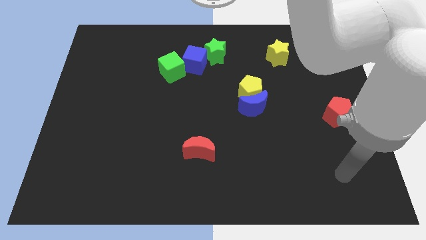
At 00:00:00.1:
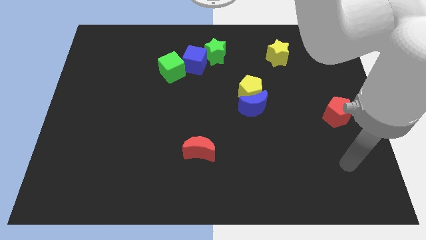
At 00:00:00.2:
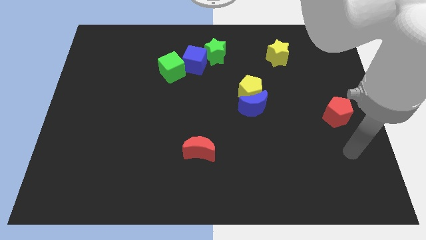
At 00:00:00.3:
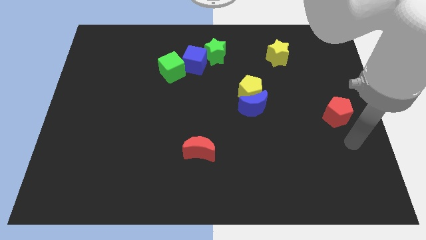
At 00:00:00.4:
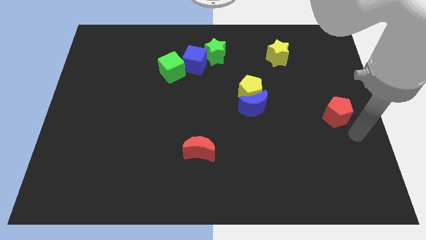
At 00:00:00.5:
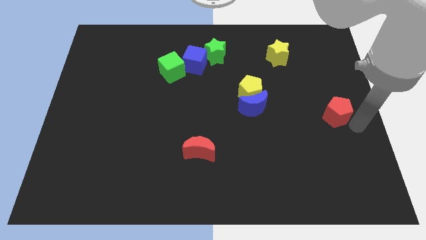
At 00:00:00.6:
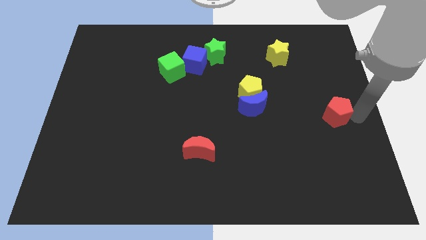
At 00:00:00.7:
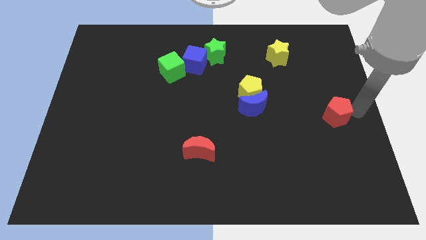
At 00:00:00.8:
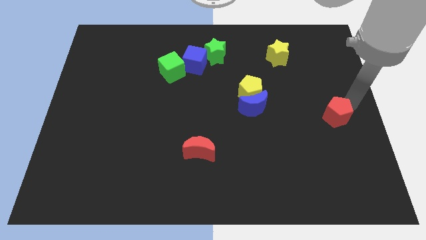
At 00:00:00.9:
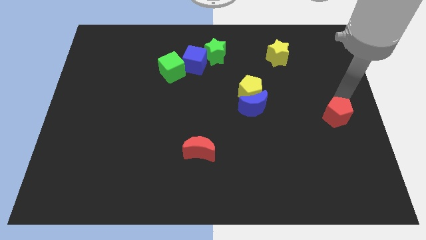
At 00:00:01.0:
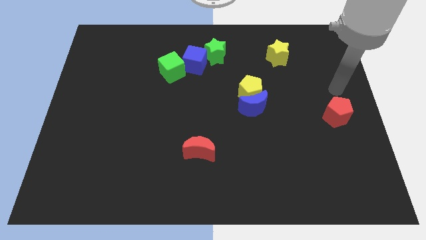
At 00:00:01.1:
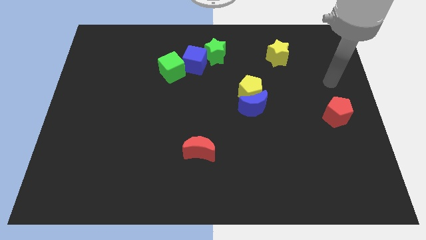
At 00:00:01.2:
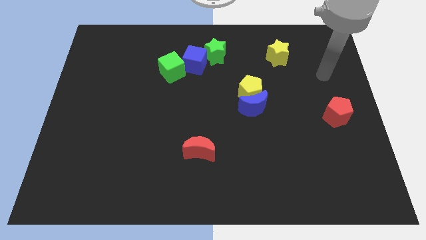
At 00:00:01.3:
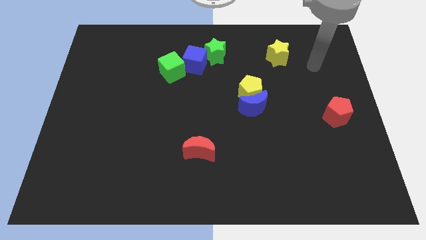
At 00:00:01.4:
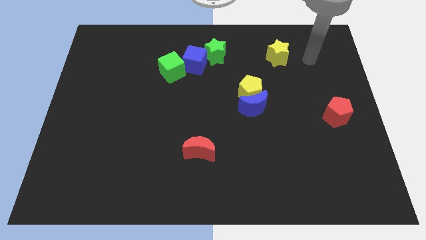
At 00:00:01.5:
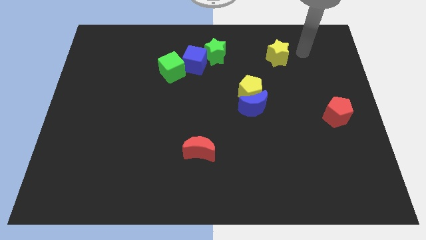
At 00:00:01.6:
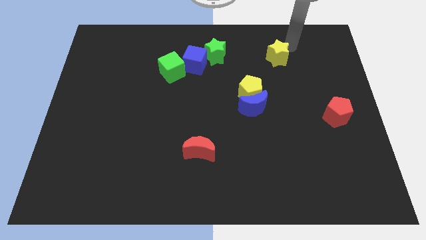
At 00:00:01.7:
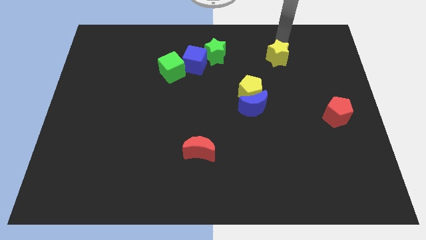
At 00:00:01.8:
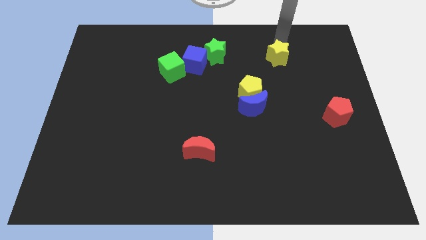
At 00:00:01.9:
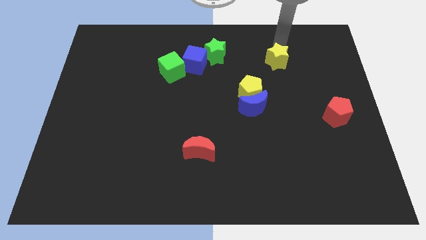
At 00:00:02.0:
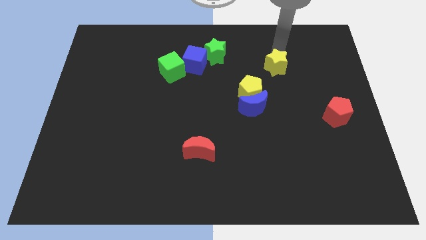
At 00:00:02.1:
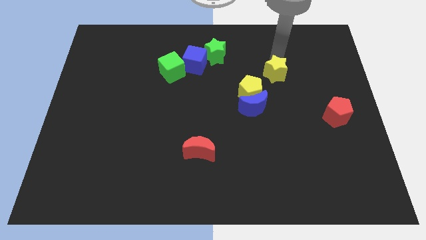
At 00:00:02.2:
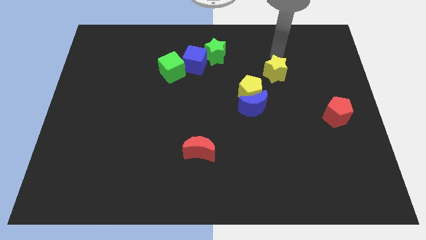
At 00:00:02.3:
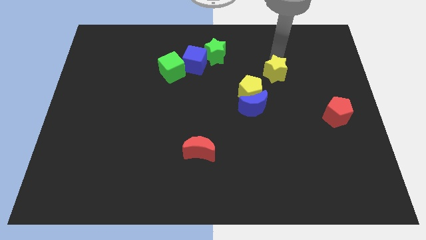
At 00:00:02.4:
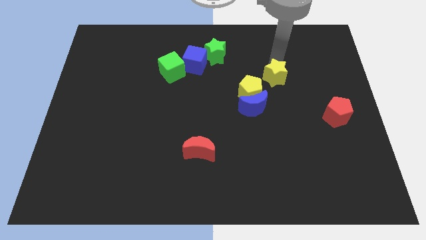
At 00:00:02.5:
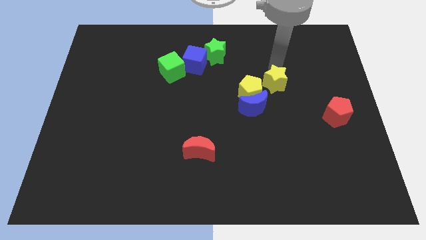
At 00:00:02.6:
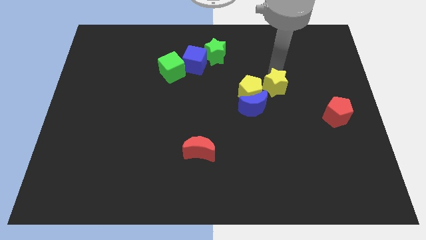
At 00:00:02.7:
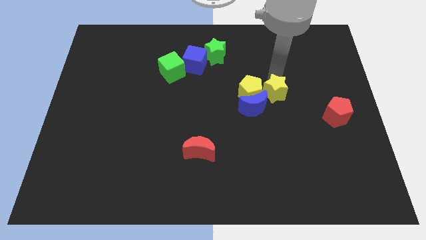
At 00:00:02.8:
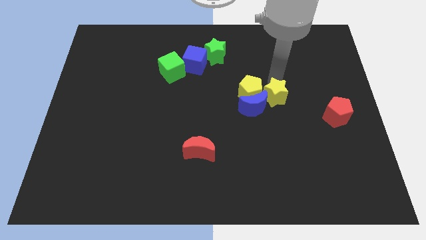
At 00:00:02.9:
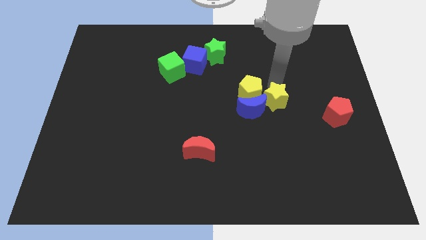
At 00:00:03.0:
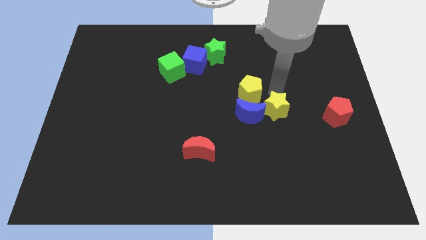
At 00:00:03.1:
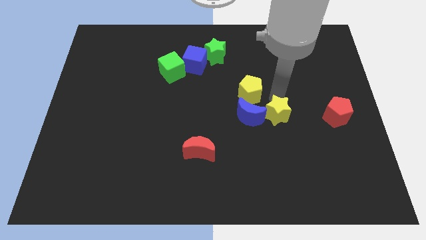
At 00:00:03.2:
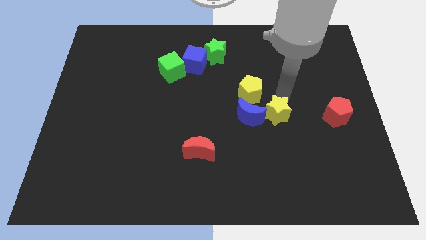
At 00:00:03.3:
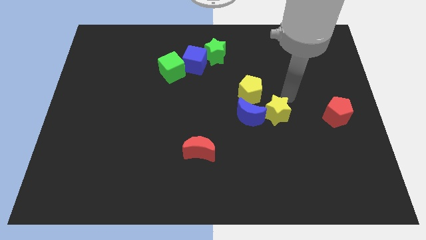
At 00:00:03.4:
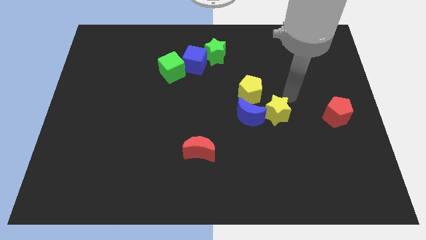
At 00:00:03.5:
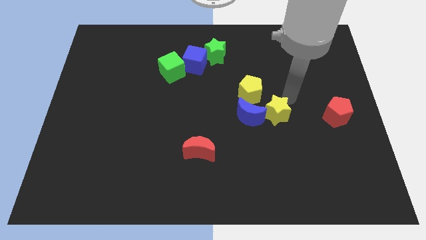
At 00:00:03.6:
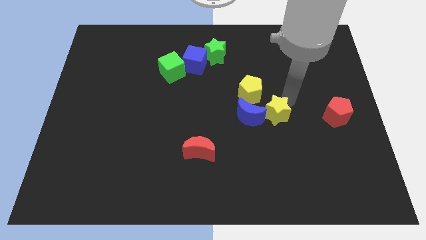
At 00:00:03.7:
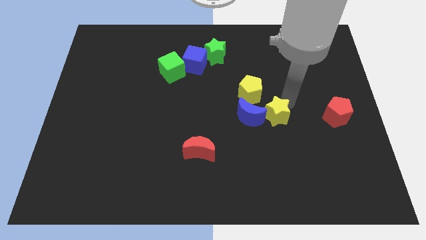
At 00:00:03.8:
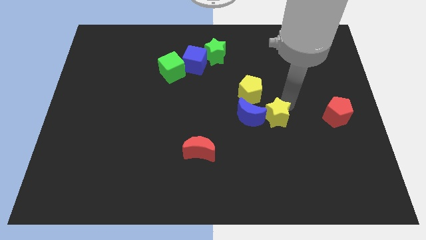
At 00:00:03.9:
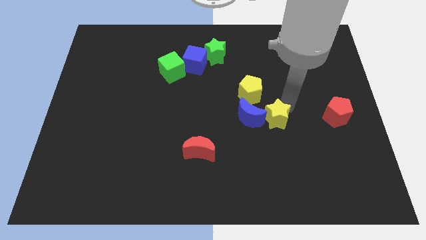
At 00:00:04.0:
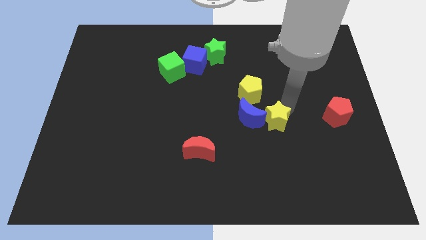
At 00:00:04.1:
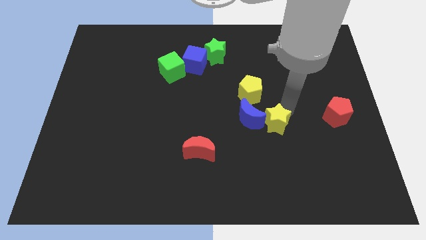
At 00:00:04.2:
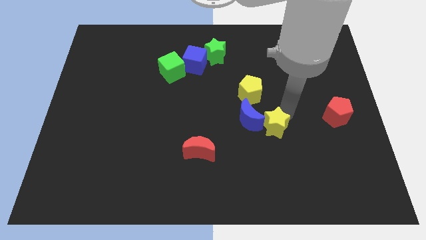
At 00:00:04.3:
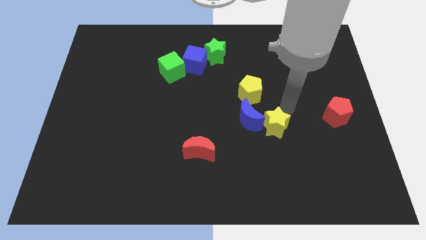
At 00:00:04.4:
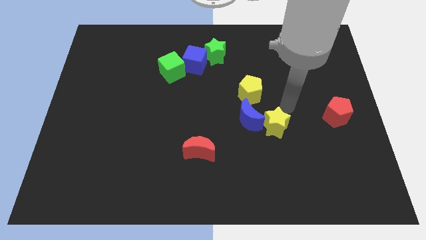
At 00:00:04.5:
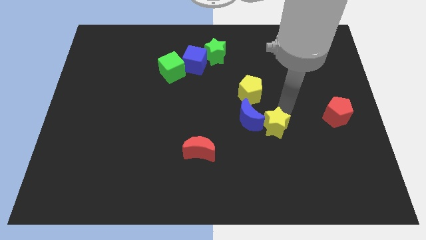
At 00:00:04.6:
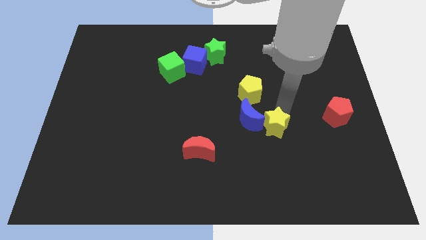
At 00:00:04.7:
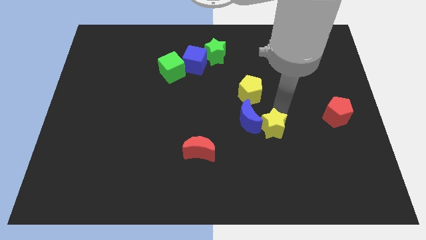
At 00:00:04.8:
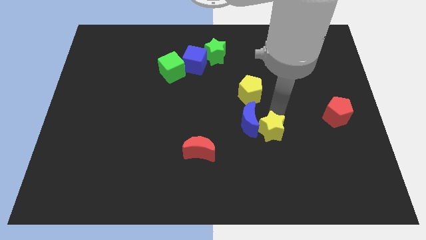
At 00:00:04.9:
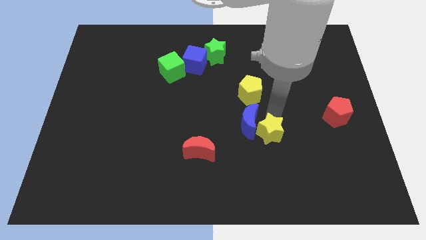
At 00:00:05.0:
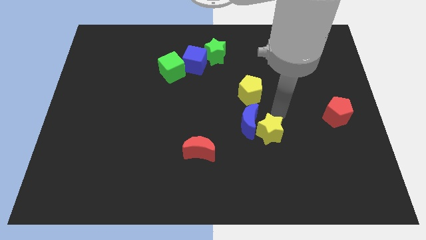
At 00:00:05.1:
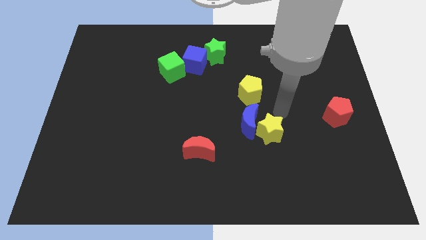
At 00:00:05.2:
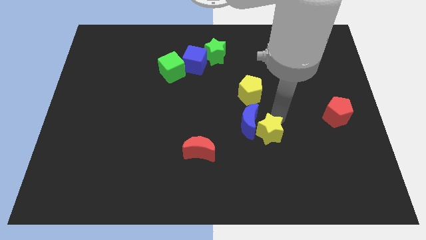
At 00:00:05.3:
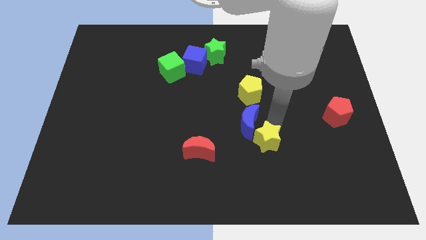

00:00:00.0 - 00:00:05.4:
slide the yellow star below the blue moon

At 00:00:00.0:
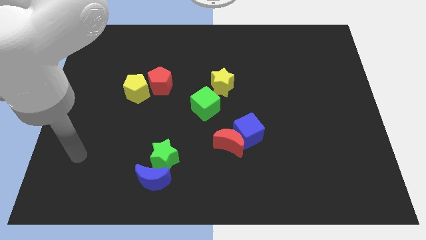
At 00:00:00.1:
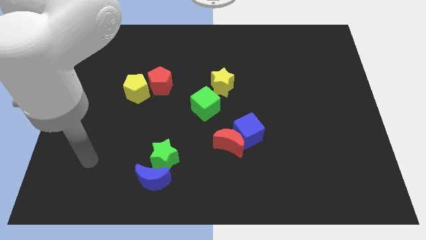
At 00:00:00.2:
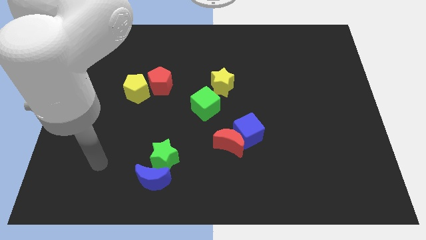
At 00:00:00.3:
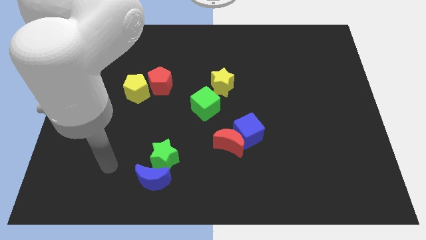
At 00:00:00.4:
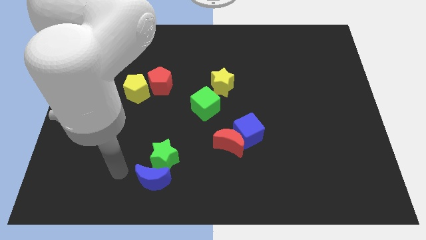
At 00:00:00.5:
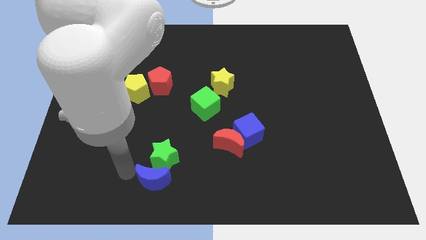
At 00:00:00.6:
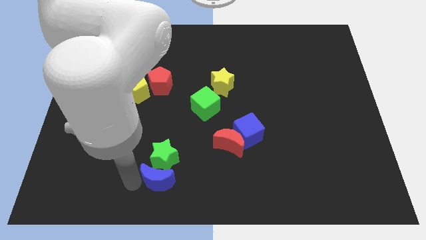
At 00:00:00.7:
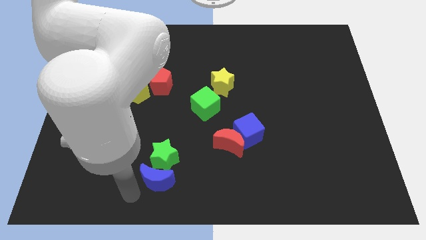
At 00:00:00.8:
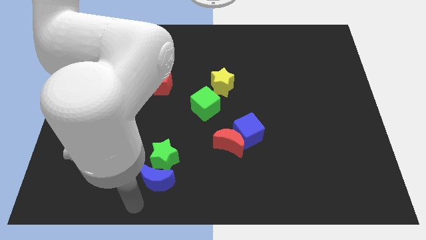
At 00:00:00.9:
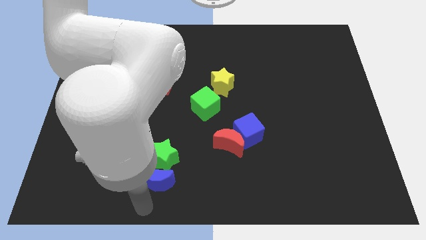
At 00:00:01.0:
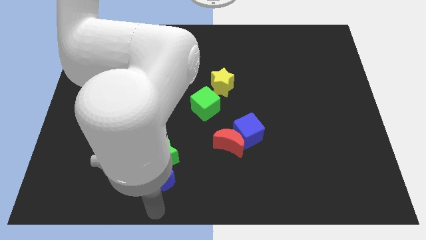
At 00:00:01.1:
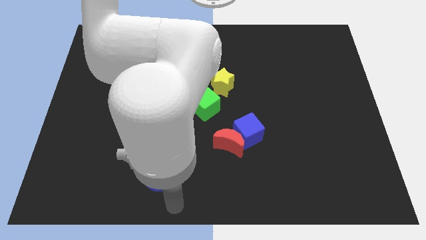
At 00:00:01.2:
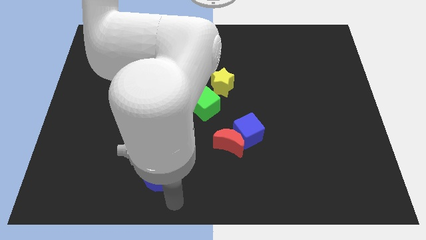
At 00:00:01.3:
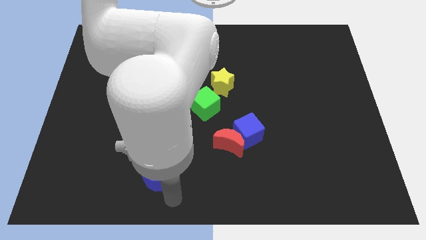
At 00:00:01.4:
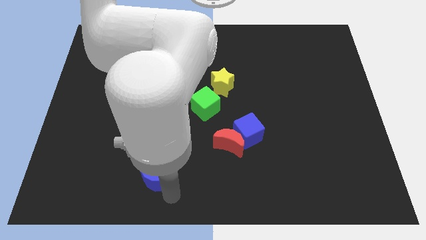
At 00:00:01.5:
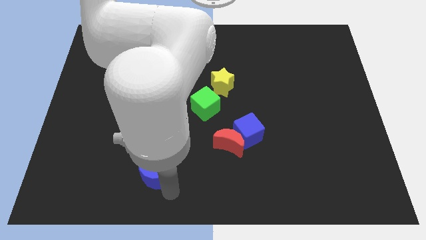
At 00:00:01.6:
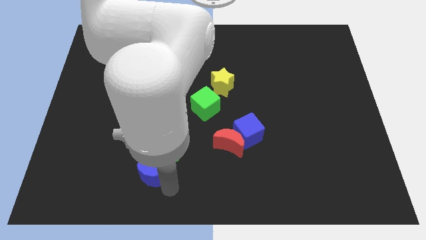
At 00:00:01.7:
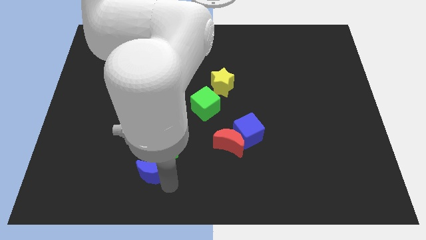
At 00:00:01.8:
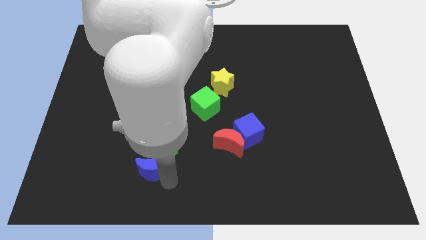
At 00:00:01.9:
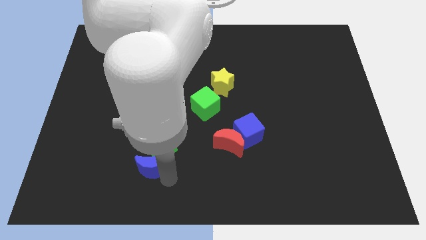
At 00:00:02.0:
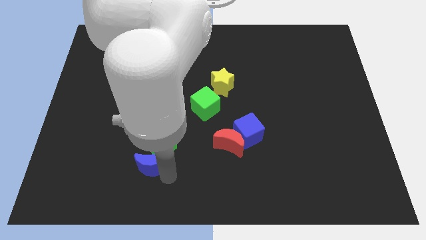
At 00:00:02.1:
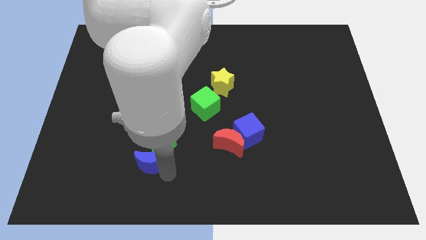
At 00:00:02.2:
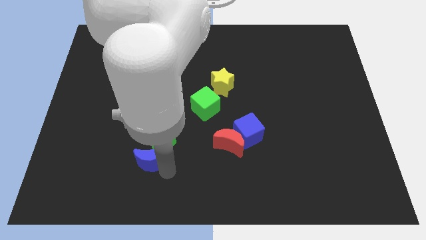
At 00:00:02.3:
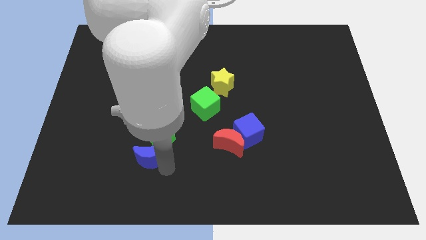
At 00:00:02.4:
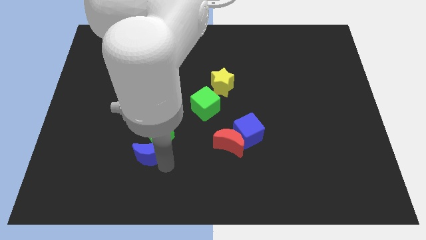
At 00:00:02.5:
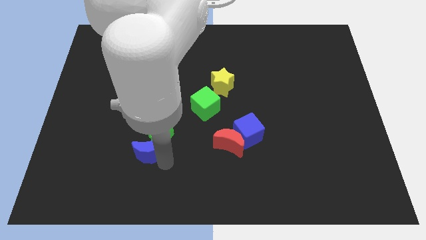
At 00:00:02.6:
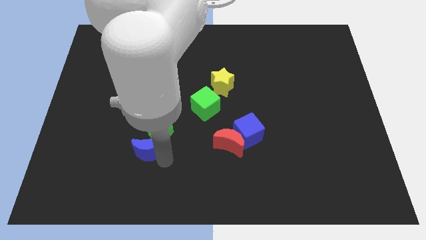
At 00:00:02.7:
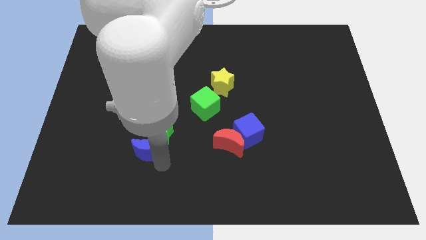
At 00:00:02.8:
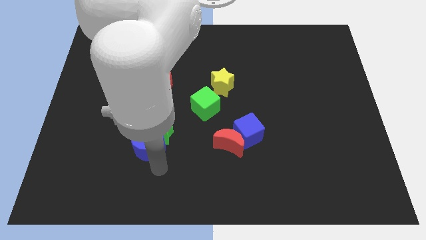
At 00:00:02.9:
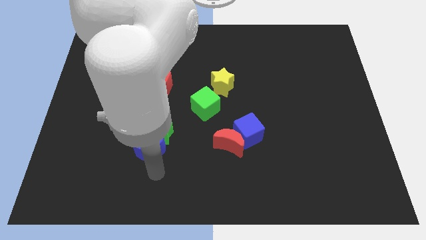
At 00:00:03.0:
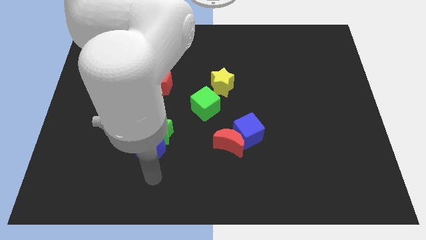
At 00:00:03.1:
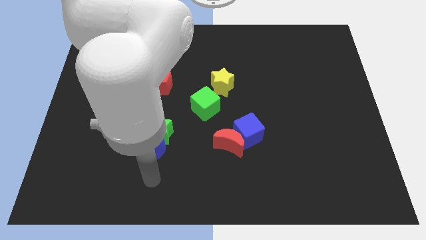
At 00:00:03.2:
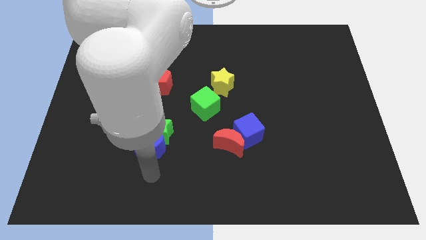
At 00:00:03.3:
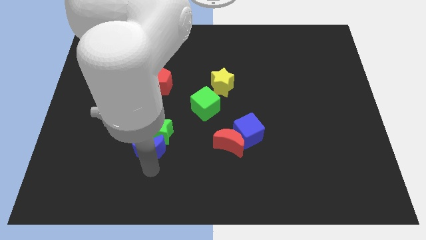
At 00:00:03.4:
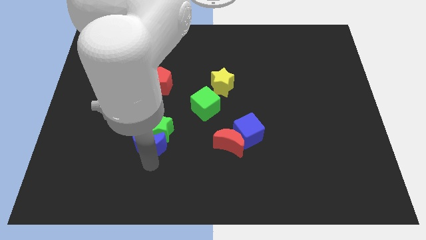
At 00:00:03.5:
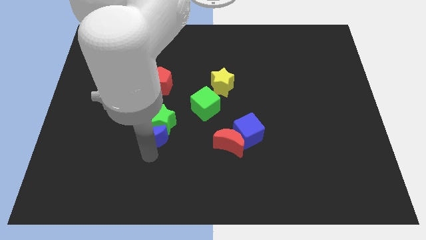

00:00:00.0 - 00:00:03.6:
put the blue moon below the red pentagon
